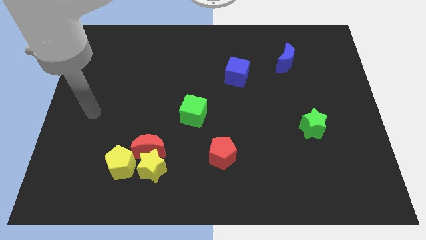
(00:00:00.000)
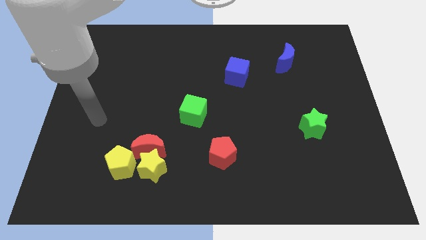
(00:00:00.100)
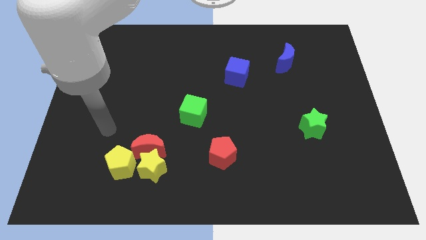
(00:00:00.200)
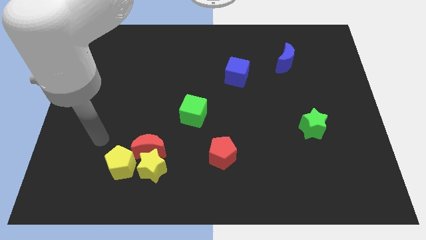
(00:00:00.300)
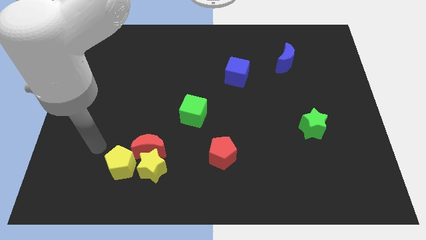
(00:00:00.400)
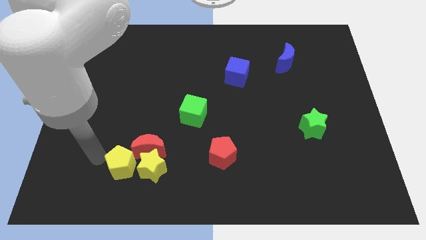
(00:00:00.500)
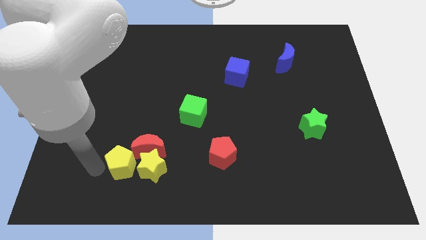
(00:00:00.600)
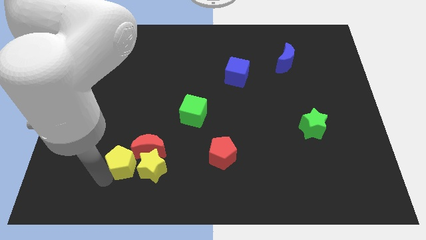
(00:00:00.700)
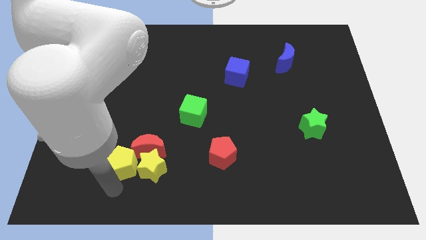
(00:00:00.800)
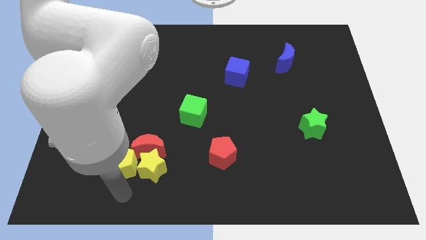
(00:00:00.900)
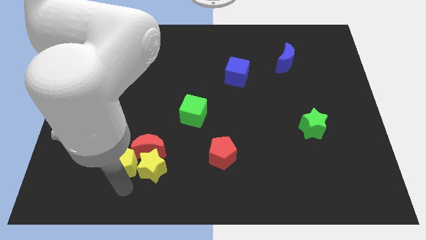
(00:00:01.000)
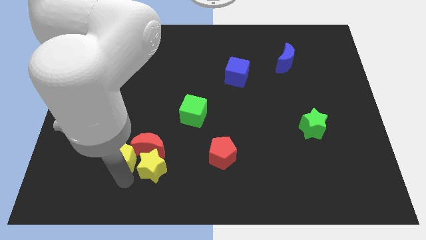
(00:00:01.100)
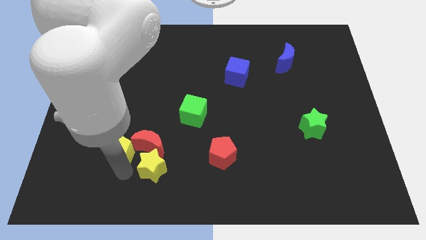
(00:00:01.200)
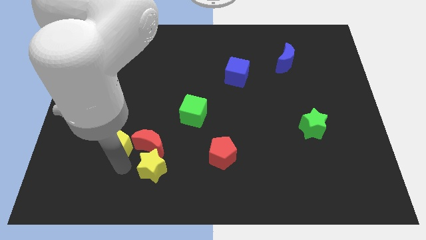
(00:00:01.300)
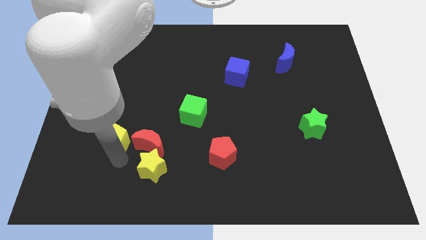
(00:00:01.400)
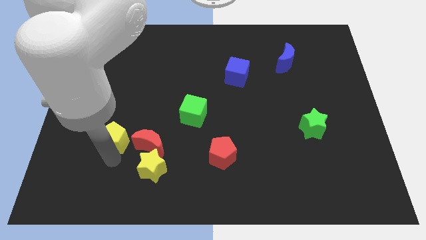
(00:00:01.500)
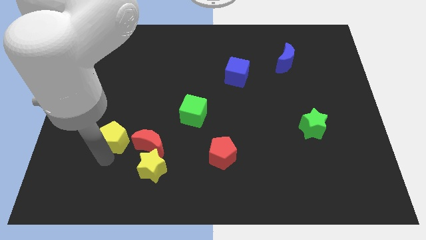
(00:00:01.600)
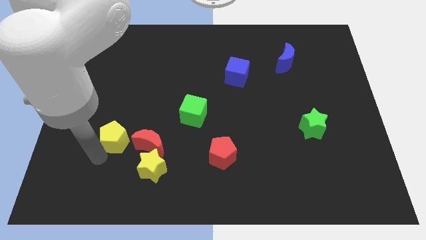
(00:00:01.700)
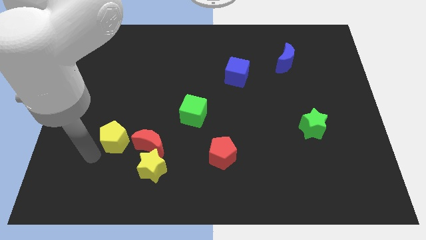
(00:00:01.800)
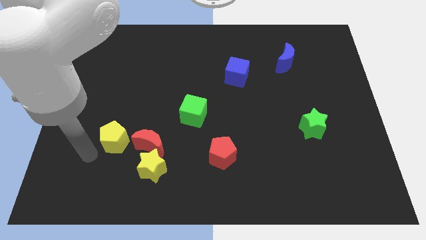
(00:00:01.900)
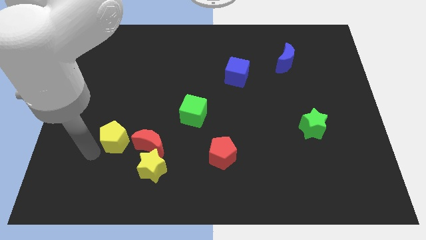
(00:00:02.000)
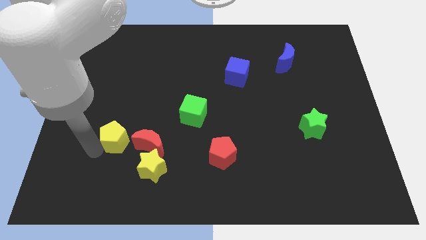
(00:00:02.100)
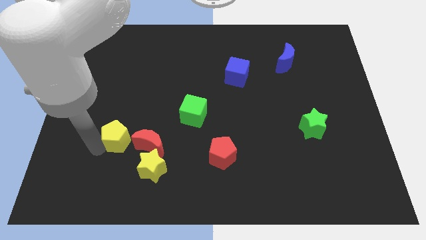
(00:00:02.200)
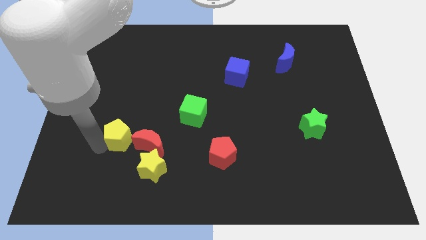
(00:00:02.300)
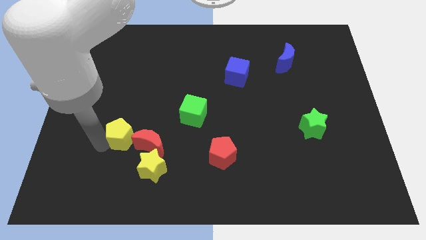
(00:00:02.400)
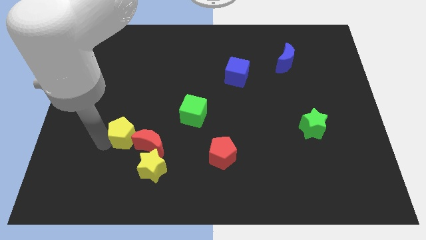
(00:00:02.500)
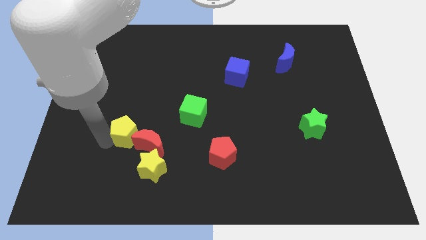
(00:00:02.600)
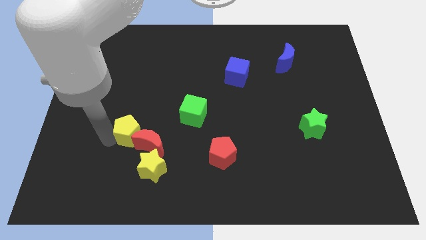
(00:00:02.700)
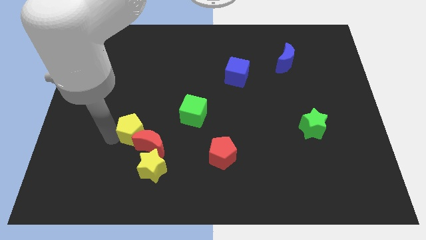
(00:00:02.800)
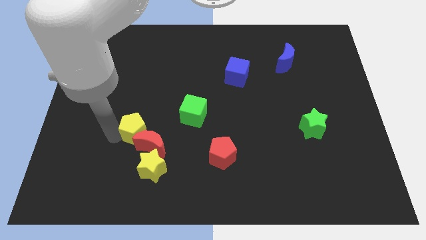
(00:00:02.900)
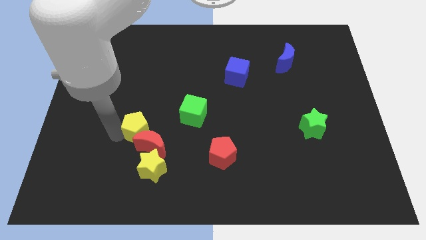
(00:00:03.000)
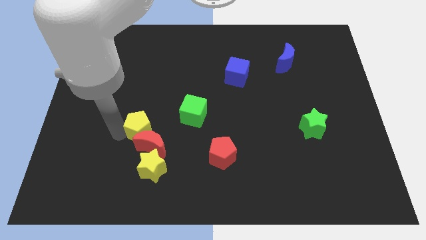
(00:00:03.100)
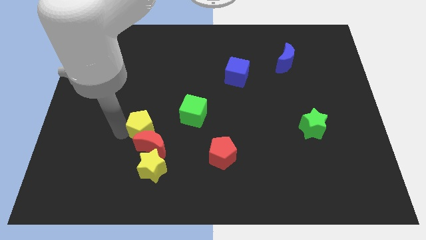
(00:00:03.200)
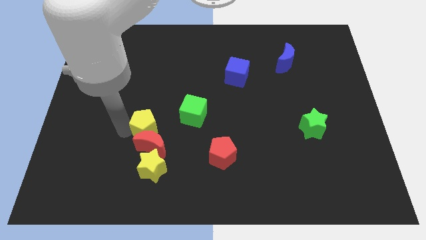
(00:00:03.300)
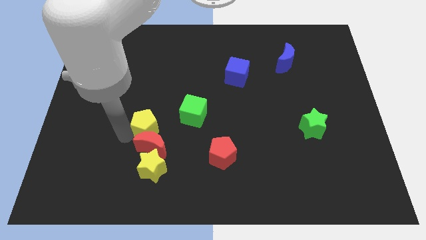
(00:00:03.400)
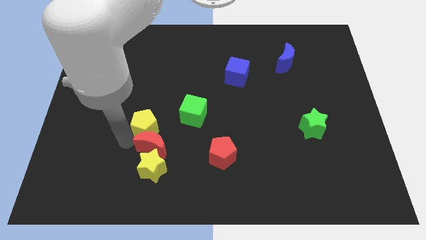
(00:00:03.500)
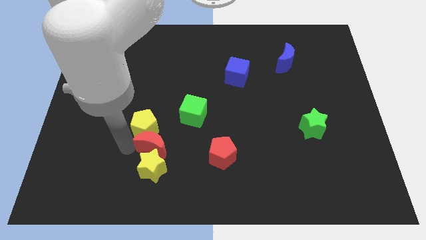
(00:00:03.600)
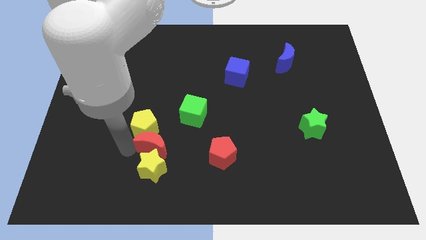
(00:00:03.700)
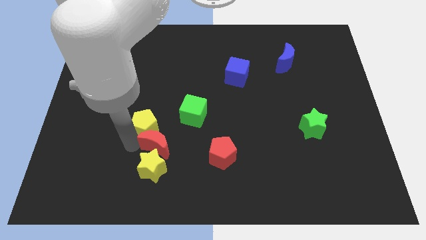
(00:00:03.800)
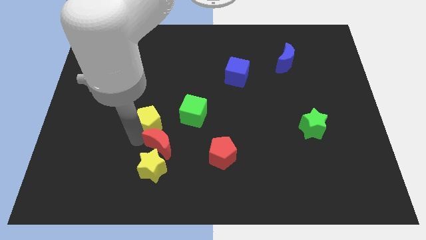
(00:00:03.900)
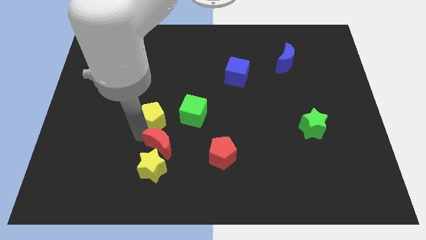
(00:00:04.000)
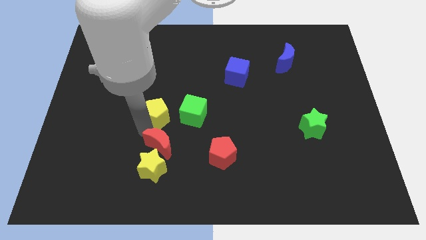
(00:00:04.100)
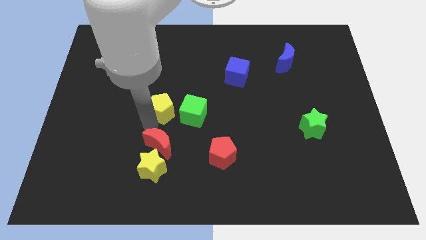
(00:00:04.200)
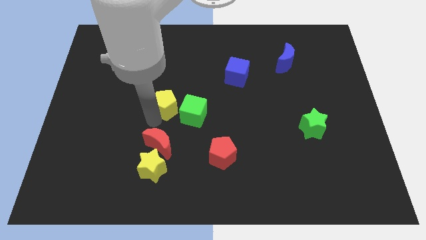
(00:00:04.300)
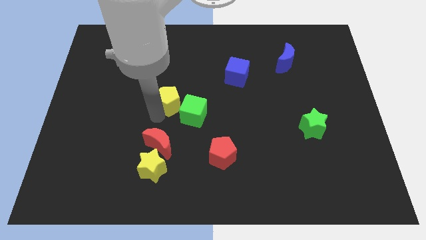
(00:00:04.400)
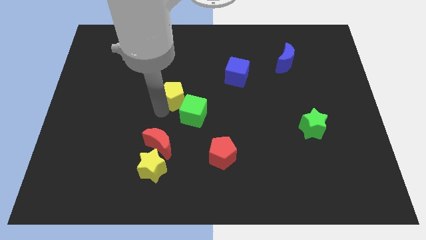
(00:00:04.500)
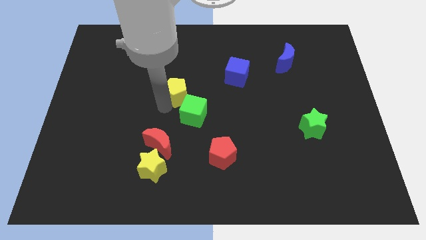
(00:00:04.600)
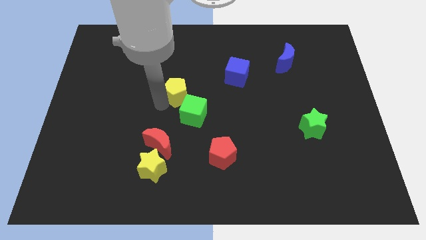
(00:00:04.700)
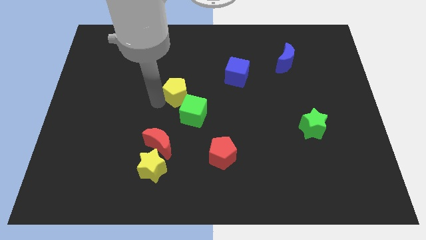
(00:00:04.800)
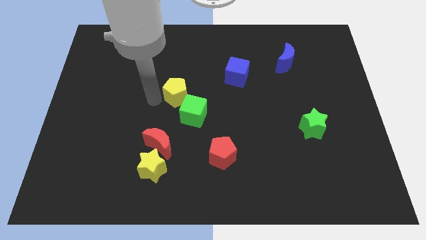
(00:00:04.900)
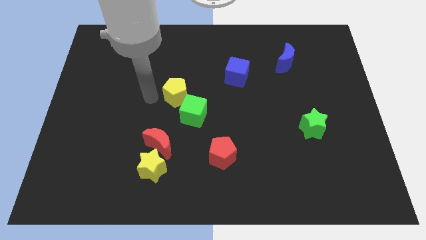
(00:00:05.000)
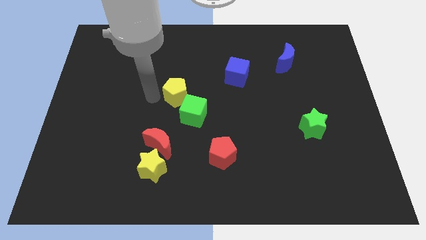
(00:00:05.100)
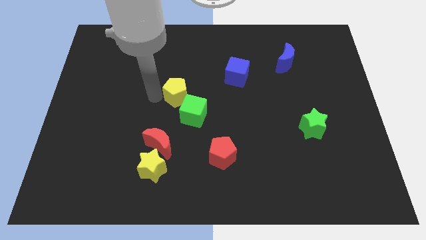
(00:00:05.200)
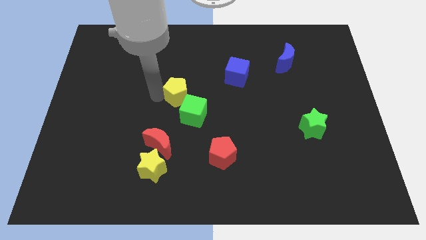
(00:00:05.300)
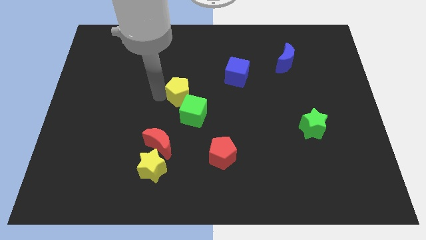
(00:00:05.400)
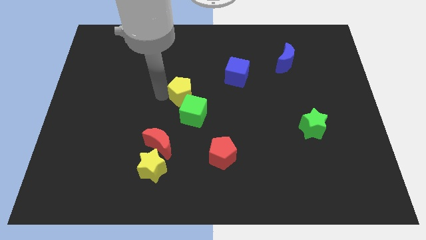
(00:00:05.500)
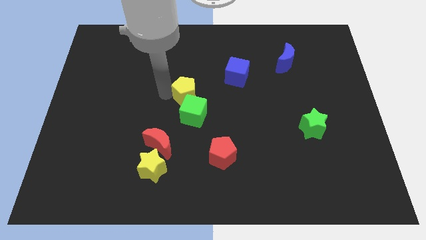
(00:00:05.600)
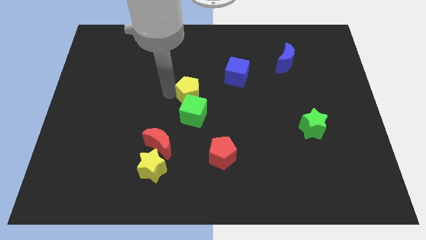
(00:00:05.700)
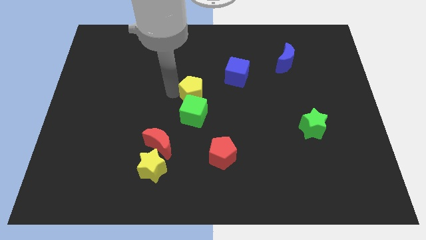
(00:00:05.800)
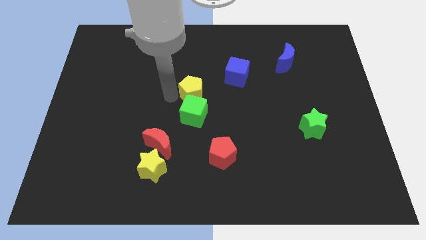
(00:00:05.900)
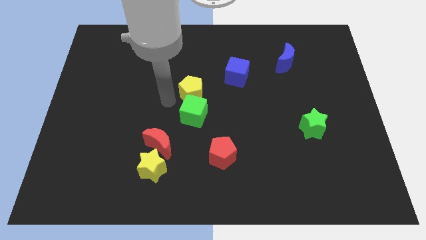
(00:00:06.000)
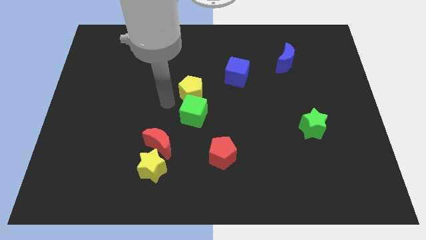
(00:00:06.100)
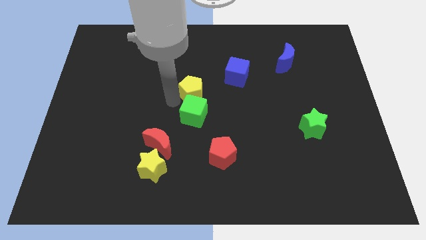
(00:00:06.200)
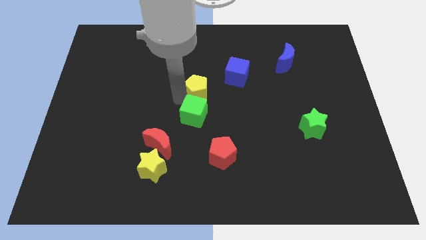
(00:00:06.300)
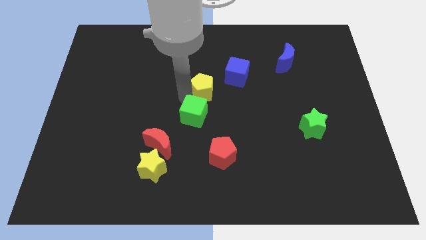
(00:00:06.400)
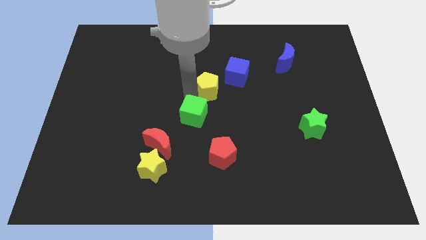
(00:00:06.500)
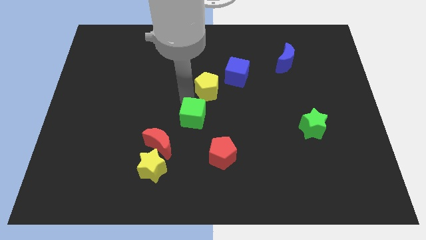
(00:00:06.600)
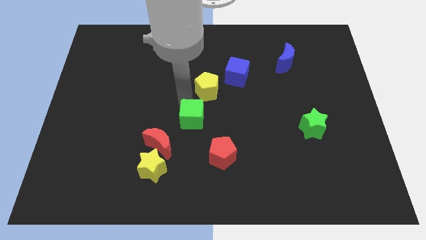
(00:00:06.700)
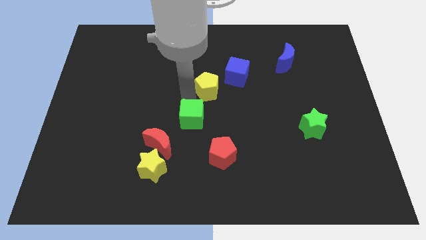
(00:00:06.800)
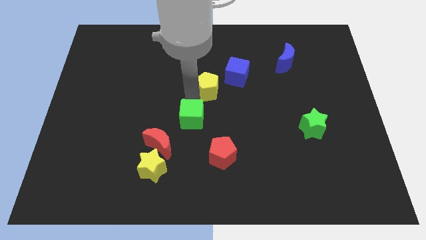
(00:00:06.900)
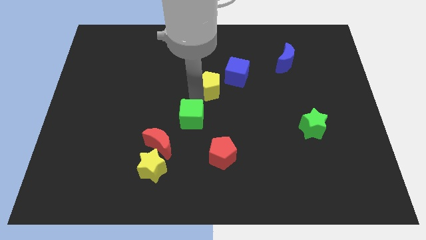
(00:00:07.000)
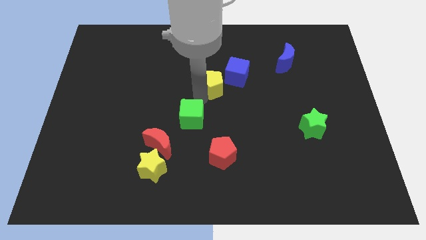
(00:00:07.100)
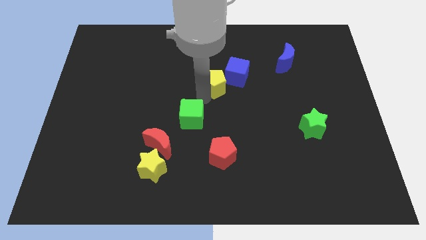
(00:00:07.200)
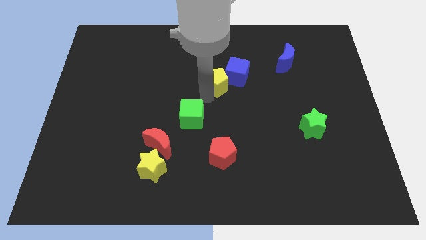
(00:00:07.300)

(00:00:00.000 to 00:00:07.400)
put the yellow pentagon close to the blue cube

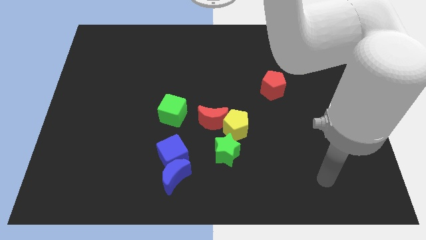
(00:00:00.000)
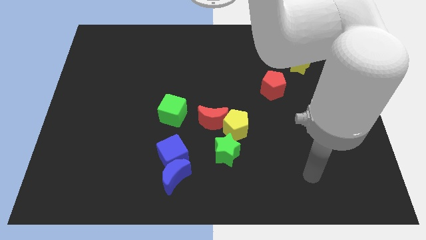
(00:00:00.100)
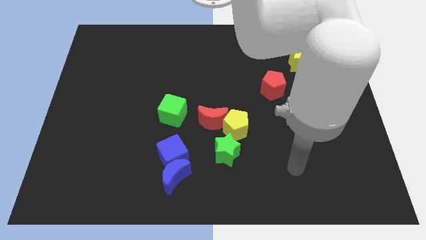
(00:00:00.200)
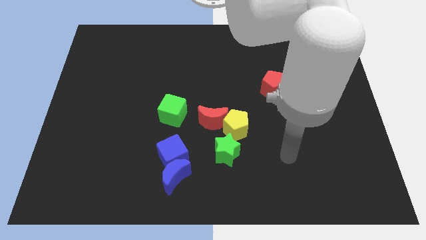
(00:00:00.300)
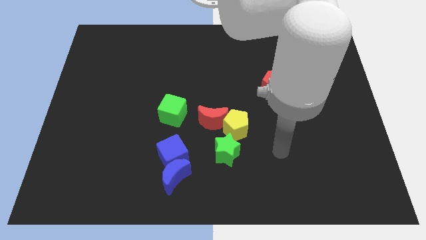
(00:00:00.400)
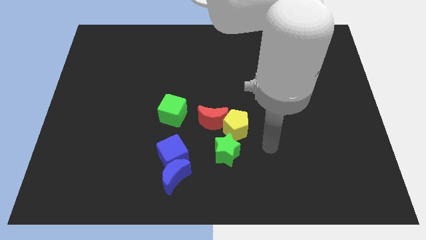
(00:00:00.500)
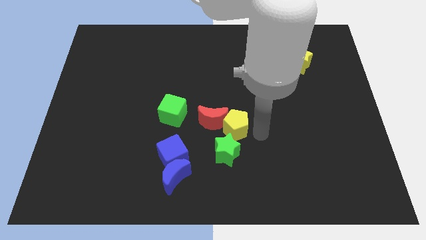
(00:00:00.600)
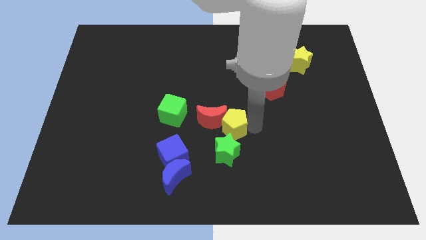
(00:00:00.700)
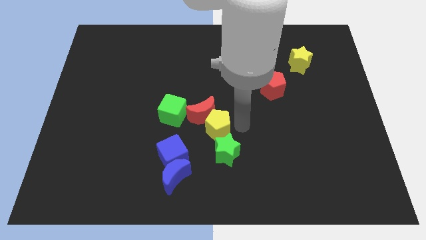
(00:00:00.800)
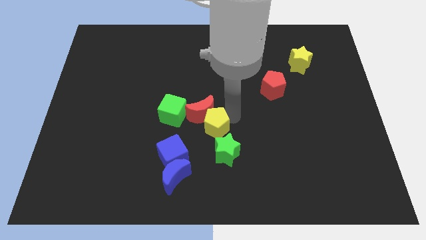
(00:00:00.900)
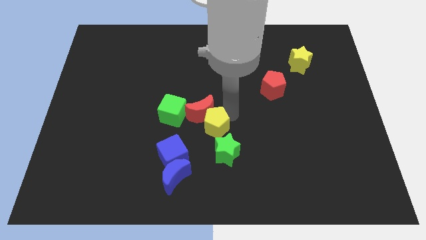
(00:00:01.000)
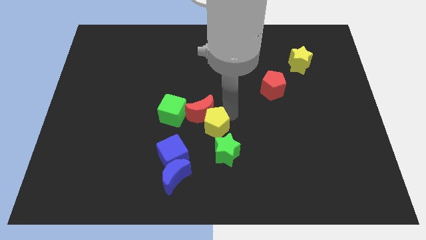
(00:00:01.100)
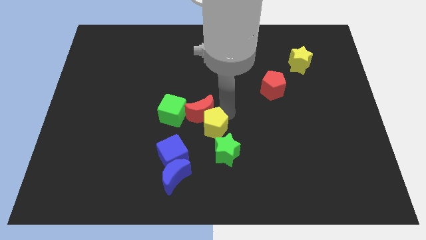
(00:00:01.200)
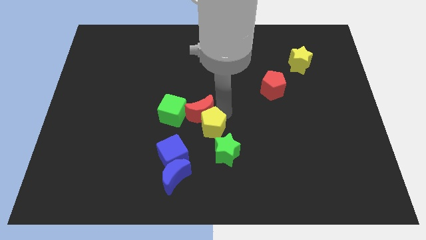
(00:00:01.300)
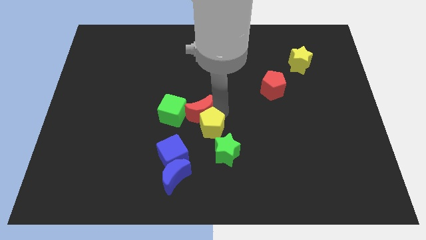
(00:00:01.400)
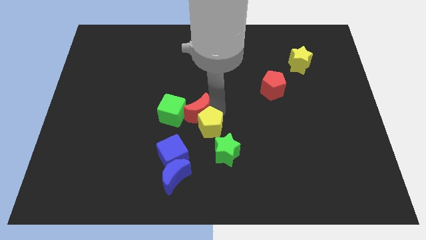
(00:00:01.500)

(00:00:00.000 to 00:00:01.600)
put the red moon to the green cube
